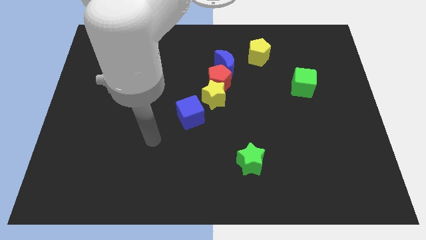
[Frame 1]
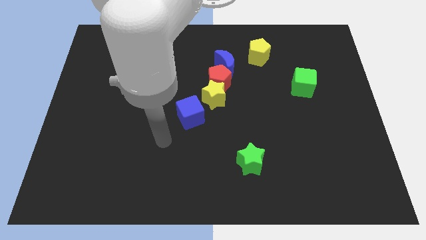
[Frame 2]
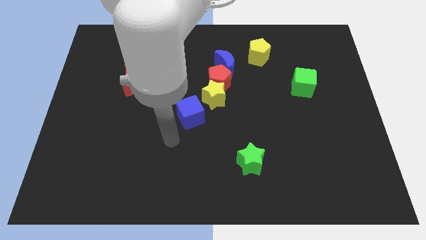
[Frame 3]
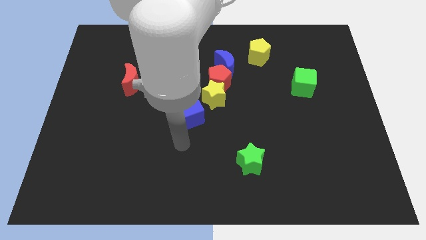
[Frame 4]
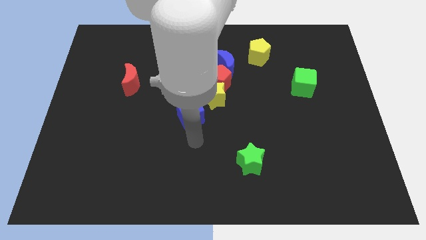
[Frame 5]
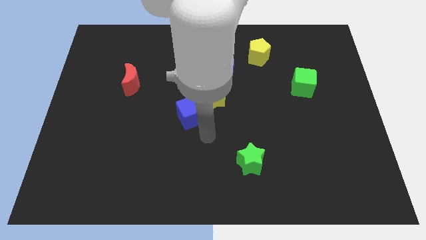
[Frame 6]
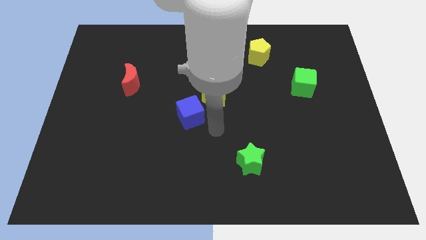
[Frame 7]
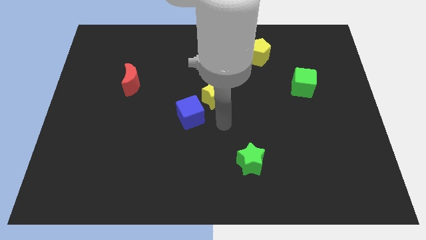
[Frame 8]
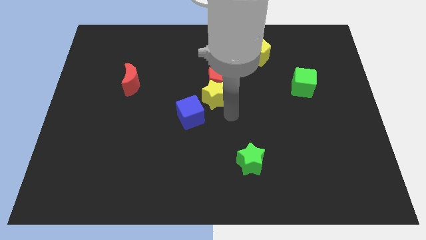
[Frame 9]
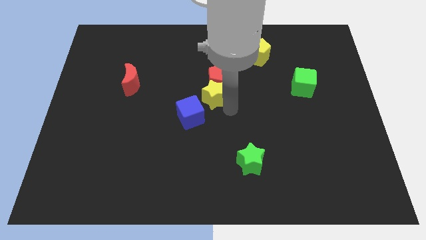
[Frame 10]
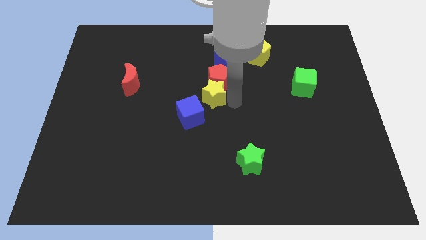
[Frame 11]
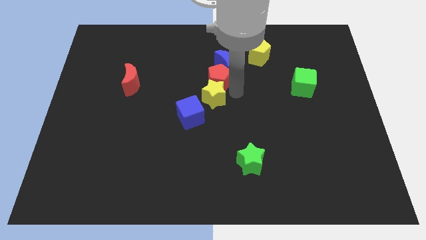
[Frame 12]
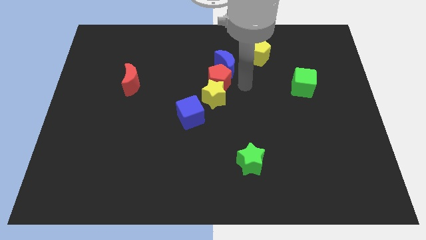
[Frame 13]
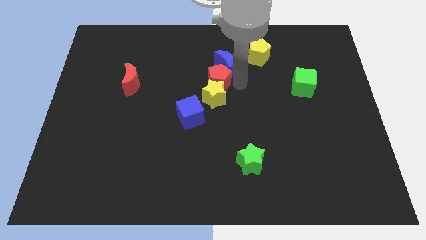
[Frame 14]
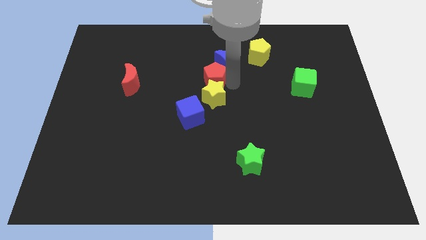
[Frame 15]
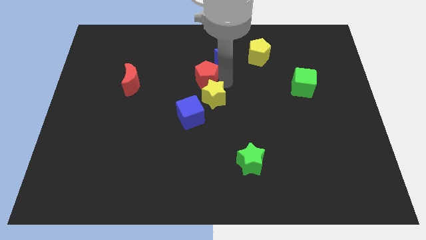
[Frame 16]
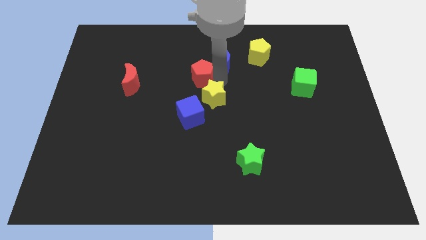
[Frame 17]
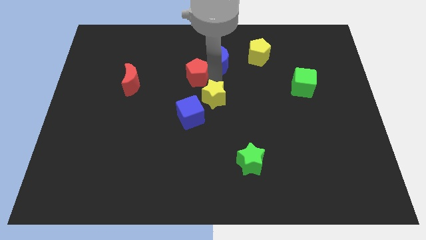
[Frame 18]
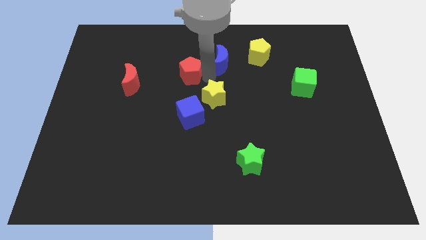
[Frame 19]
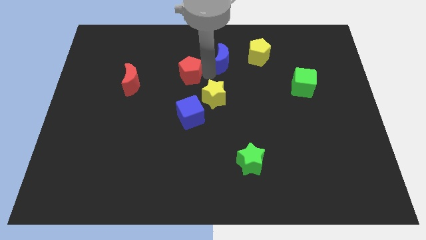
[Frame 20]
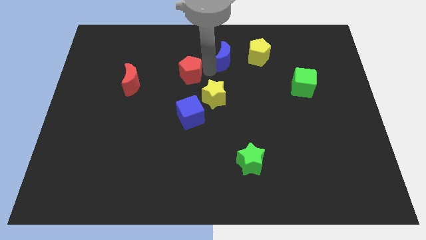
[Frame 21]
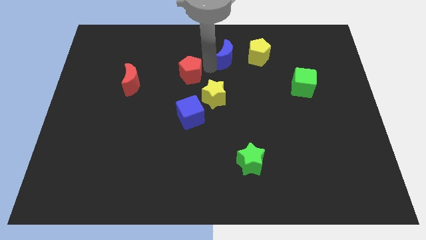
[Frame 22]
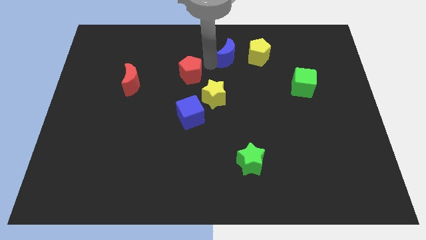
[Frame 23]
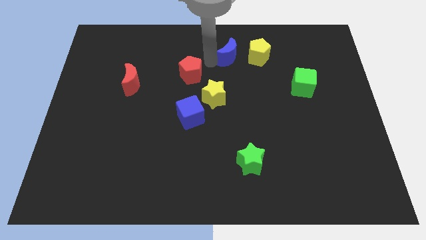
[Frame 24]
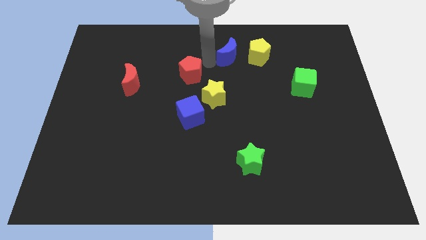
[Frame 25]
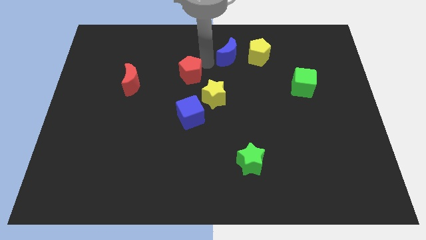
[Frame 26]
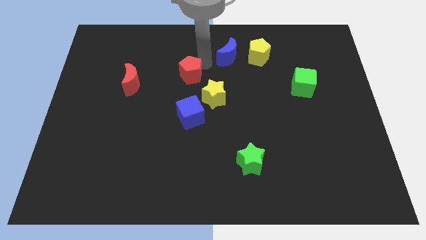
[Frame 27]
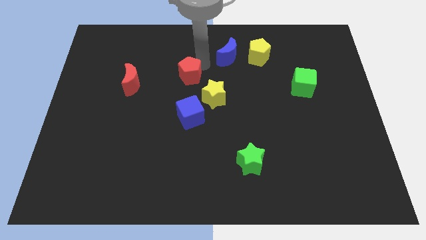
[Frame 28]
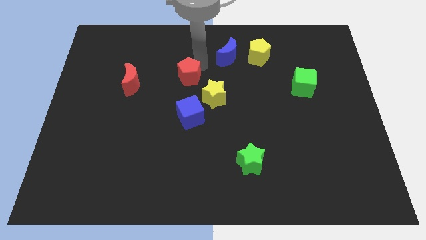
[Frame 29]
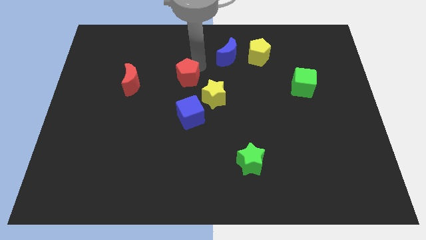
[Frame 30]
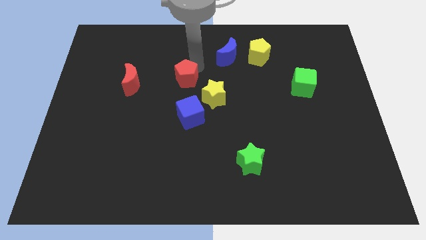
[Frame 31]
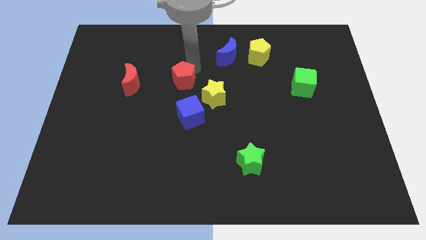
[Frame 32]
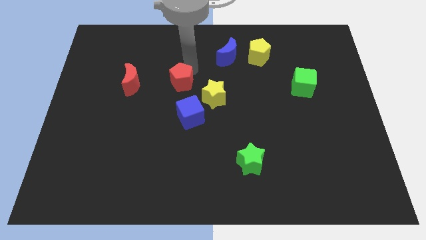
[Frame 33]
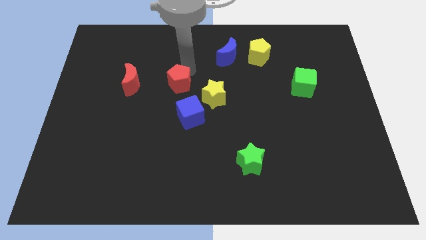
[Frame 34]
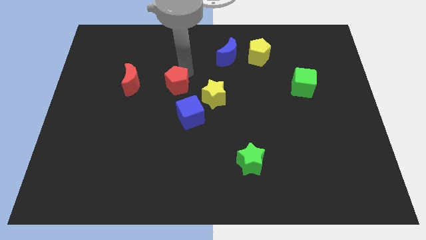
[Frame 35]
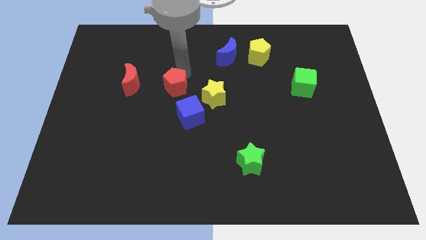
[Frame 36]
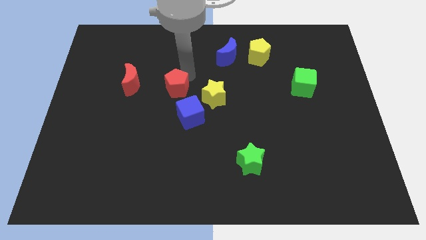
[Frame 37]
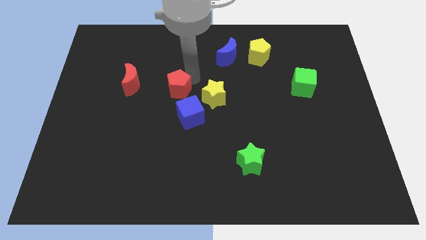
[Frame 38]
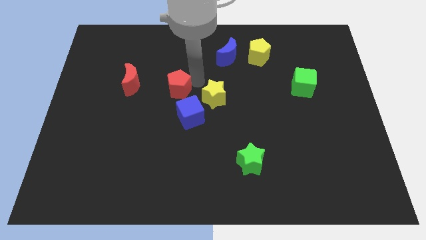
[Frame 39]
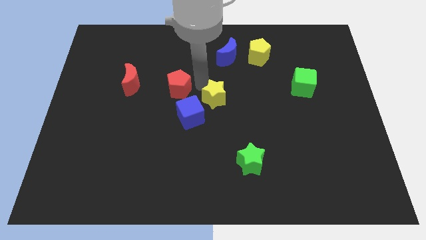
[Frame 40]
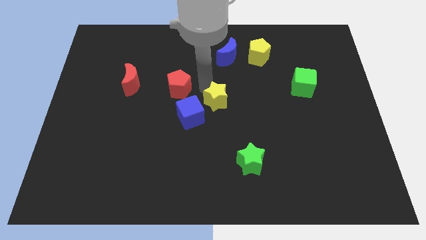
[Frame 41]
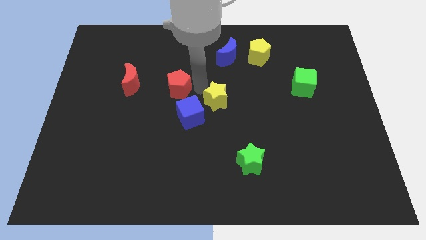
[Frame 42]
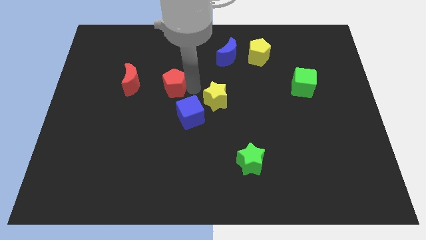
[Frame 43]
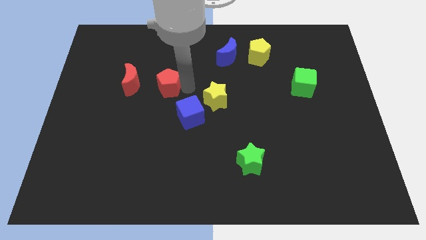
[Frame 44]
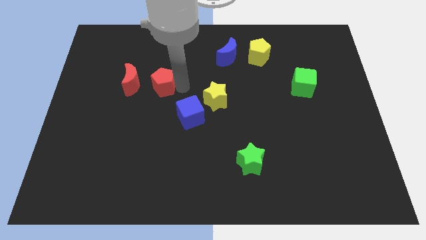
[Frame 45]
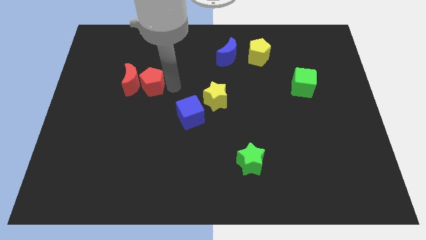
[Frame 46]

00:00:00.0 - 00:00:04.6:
push the red pentagon close to the red moon

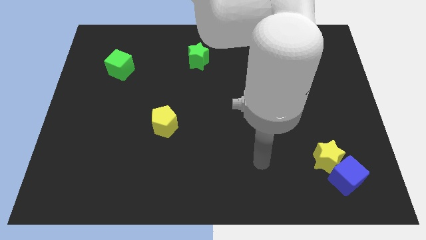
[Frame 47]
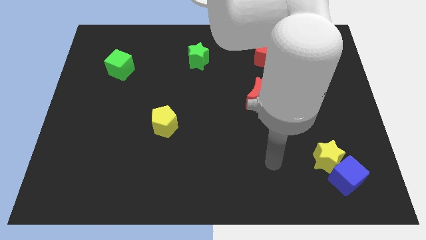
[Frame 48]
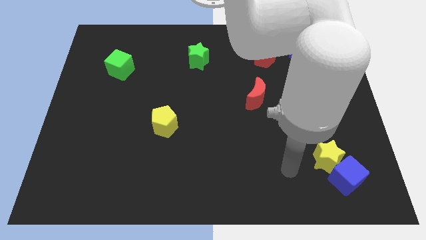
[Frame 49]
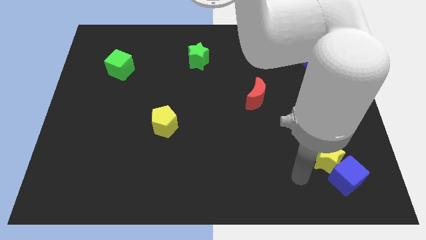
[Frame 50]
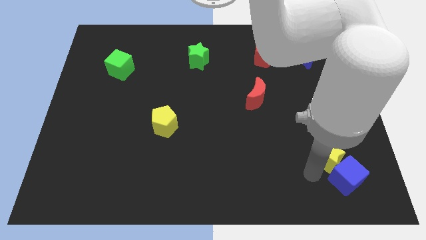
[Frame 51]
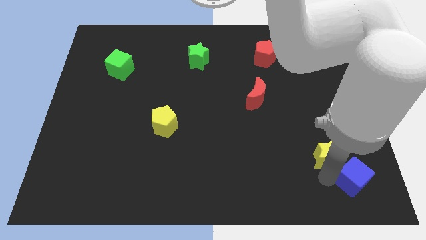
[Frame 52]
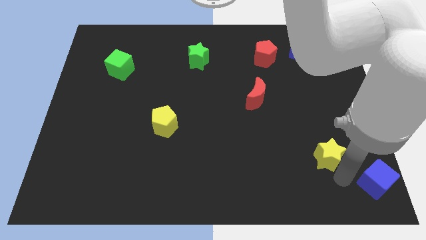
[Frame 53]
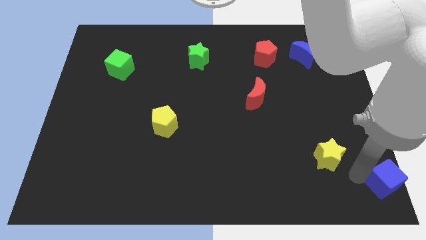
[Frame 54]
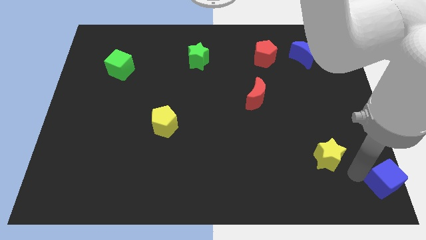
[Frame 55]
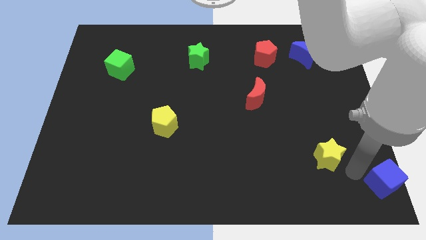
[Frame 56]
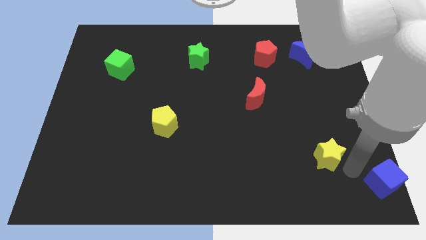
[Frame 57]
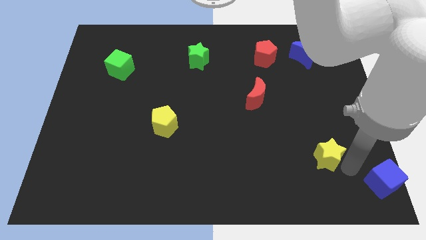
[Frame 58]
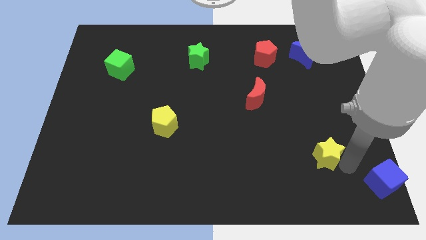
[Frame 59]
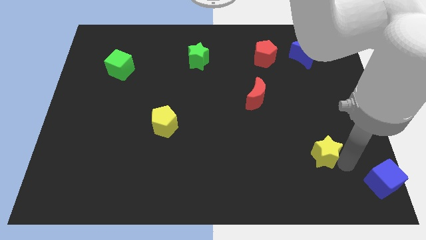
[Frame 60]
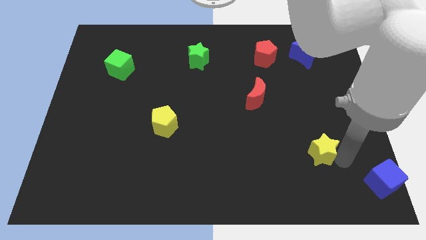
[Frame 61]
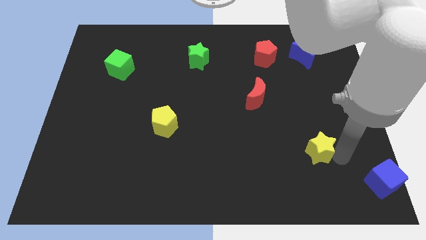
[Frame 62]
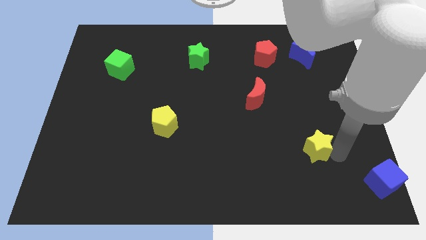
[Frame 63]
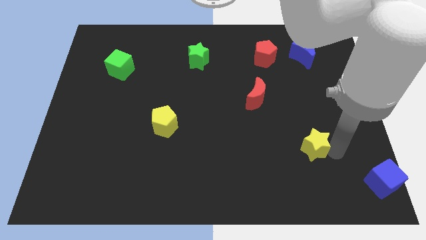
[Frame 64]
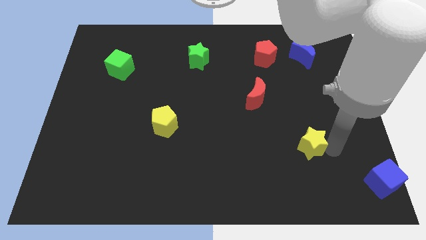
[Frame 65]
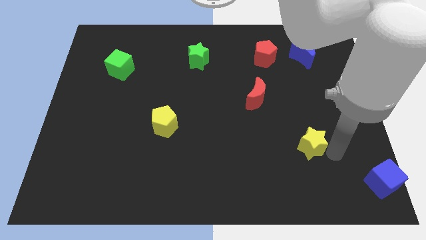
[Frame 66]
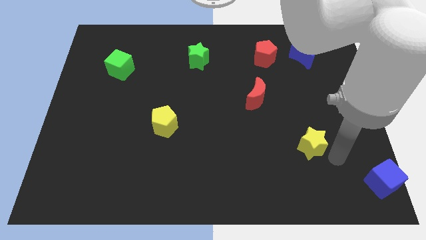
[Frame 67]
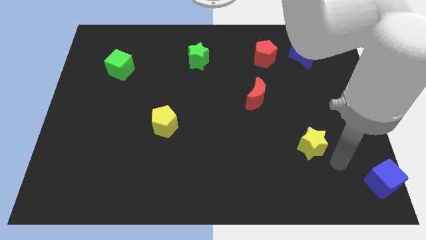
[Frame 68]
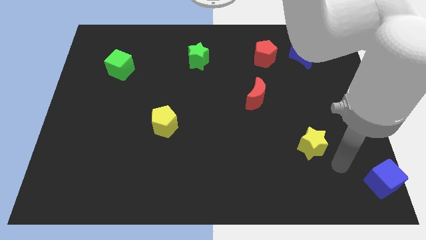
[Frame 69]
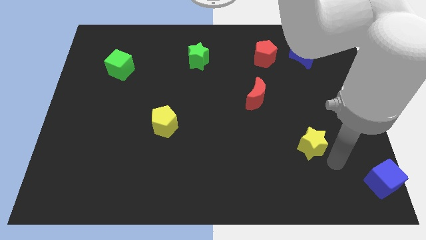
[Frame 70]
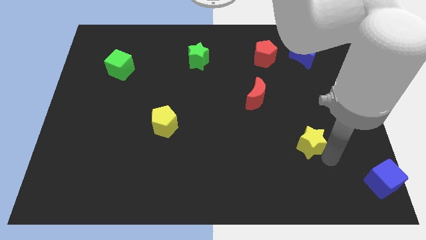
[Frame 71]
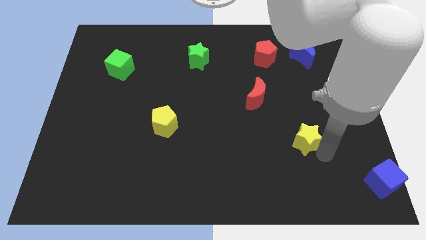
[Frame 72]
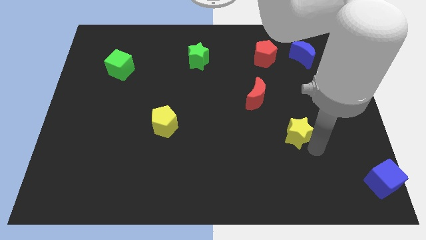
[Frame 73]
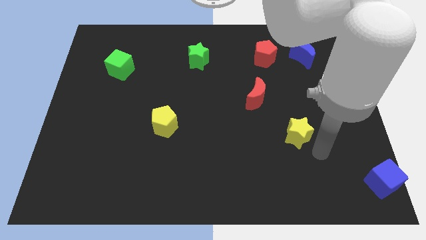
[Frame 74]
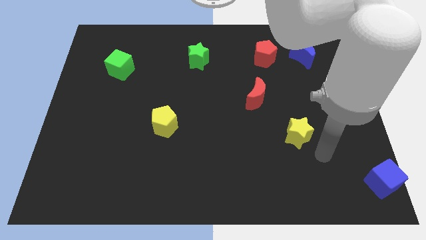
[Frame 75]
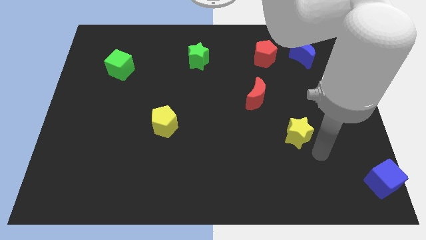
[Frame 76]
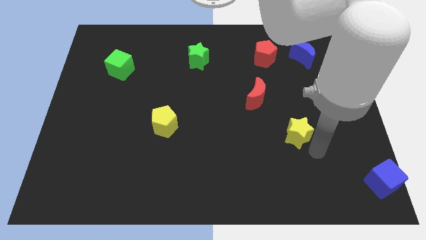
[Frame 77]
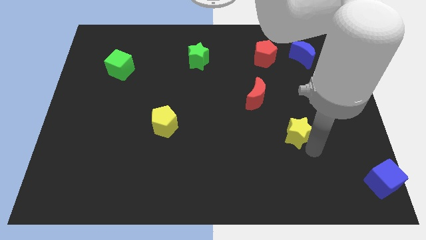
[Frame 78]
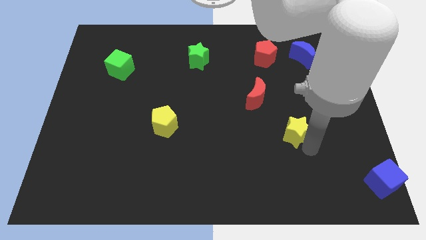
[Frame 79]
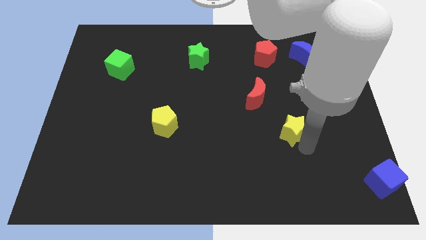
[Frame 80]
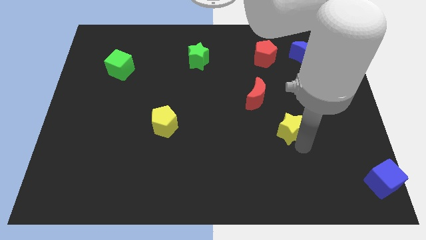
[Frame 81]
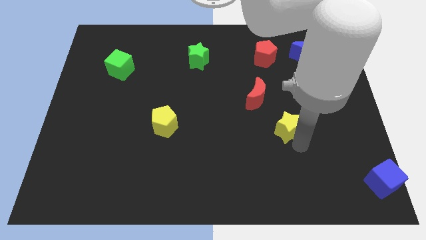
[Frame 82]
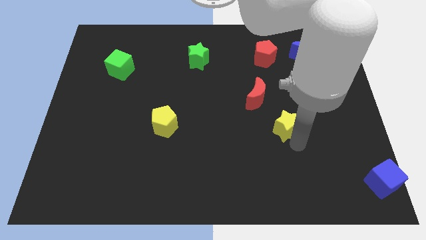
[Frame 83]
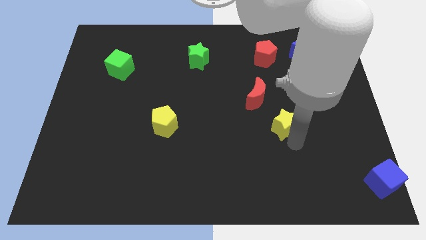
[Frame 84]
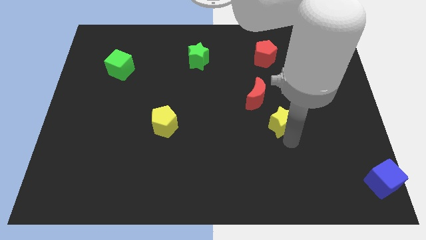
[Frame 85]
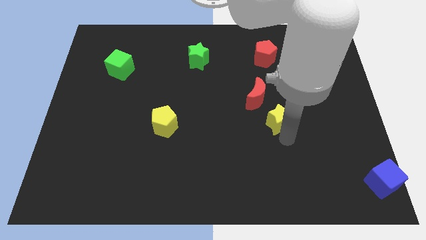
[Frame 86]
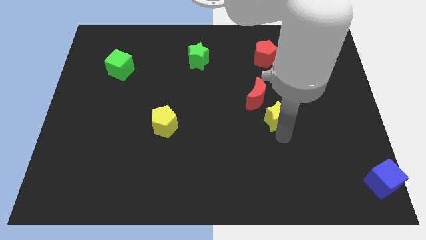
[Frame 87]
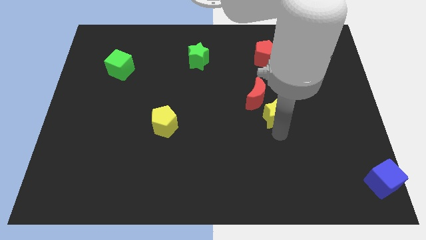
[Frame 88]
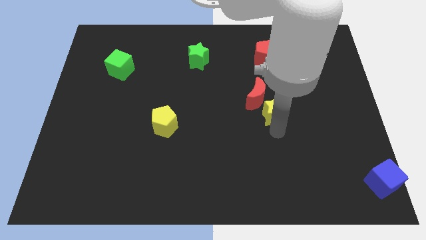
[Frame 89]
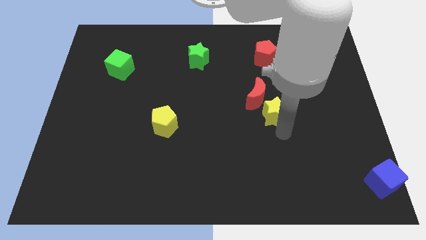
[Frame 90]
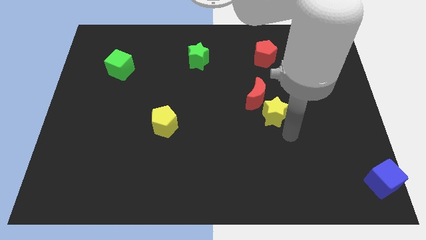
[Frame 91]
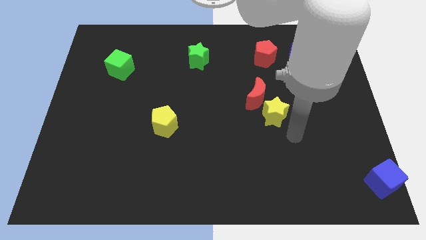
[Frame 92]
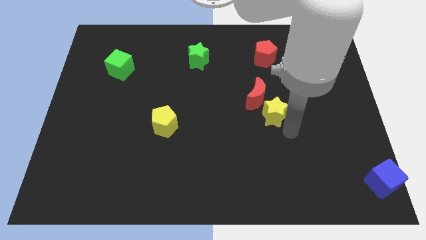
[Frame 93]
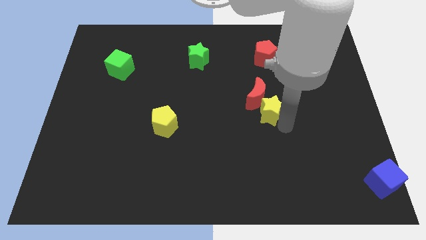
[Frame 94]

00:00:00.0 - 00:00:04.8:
move the yellow star towards the red moon
